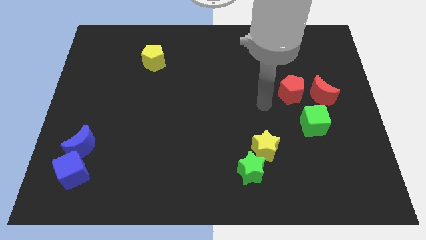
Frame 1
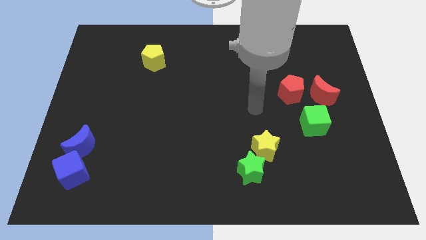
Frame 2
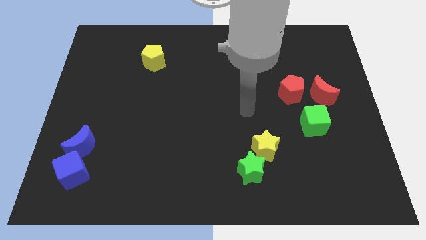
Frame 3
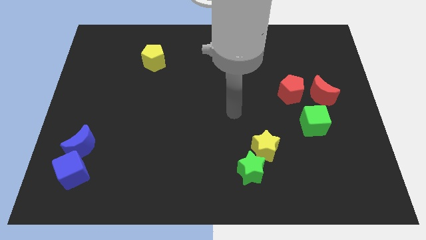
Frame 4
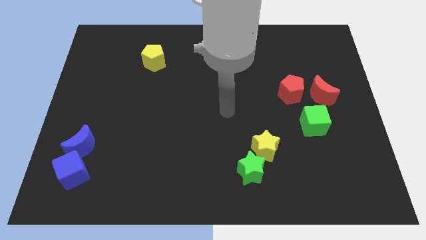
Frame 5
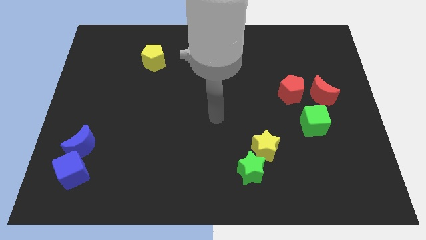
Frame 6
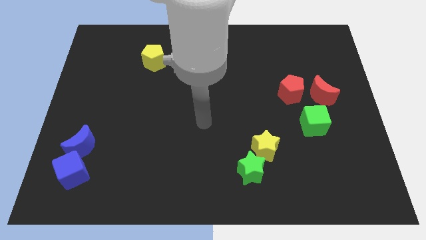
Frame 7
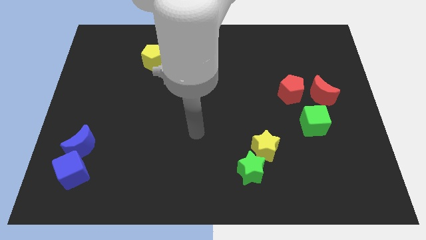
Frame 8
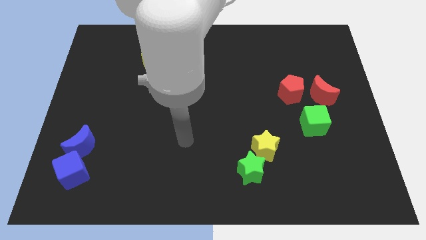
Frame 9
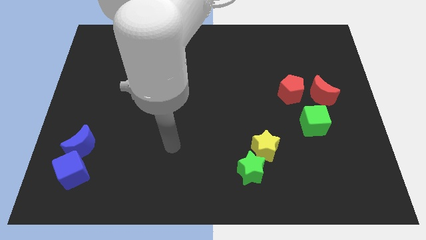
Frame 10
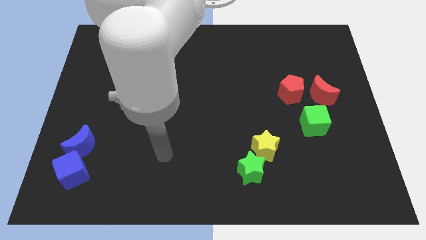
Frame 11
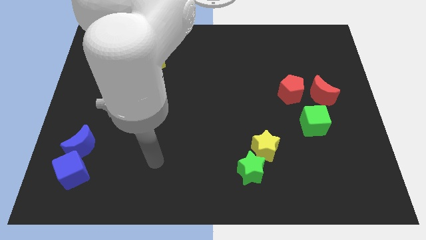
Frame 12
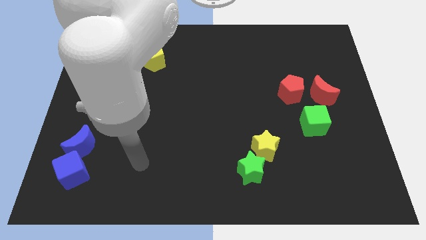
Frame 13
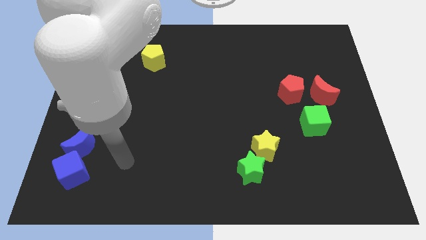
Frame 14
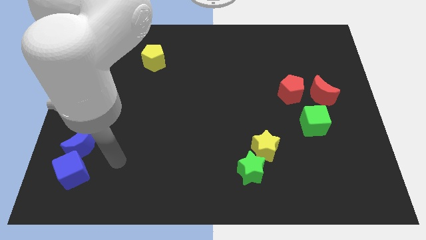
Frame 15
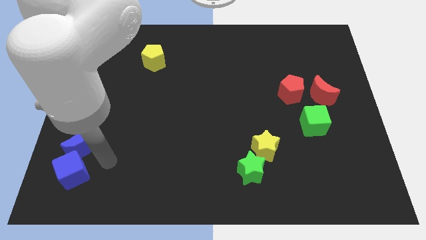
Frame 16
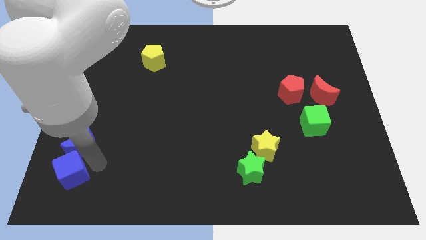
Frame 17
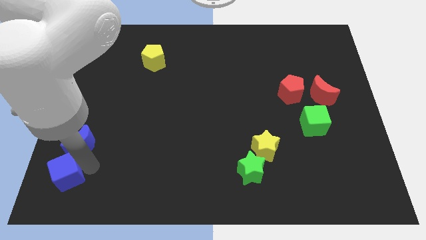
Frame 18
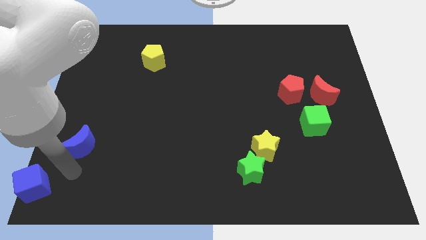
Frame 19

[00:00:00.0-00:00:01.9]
pull the blue moon apart from the blue cube

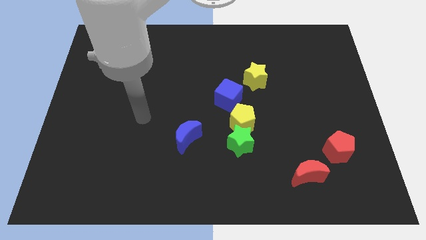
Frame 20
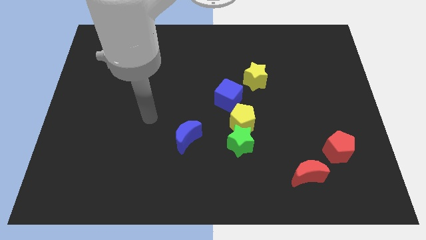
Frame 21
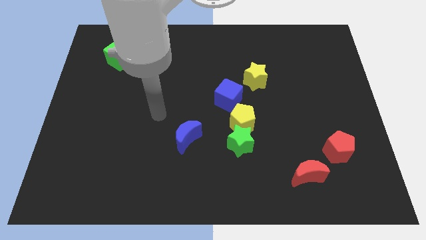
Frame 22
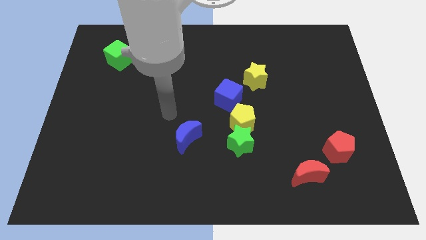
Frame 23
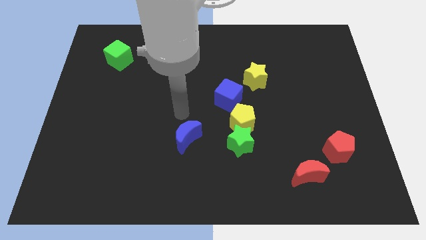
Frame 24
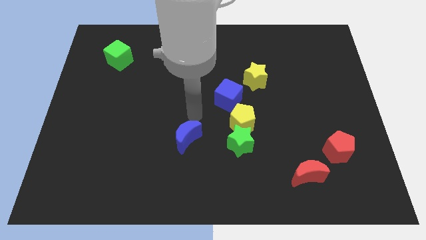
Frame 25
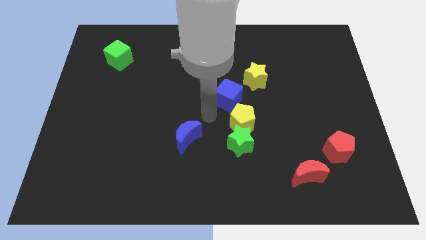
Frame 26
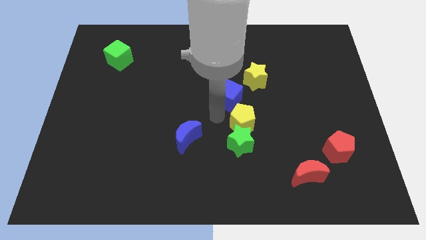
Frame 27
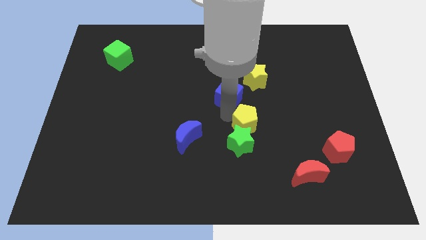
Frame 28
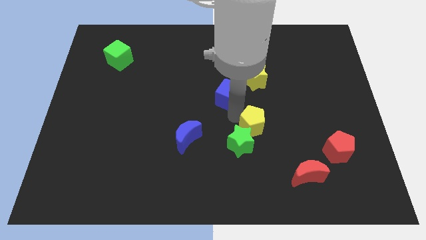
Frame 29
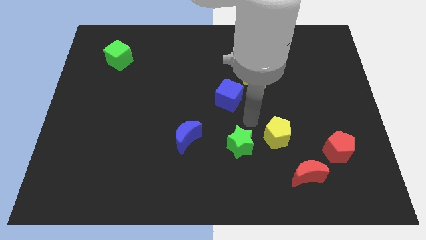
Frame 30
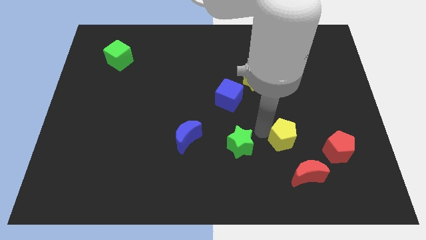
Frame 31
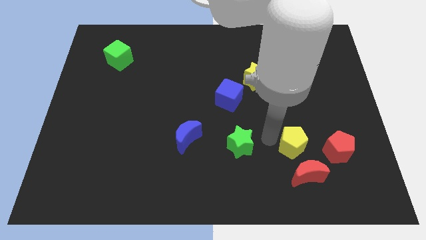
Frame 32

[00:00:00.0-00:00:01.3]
pull the green star apart from the yellow pentagon

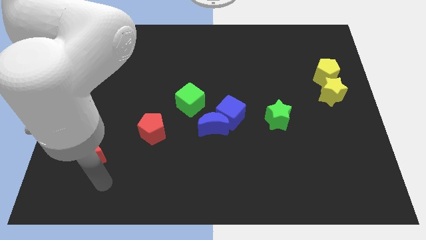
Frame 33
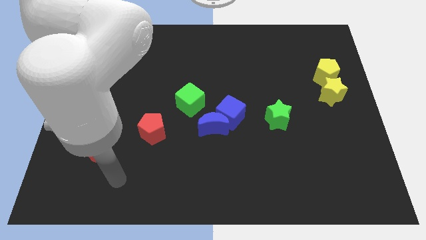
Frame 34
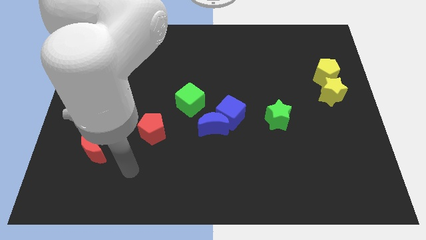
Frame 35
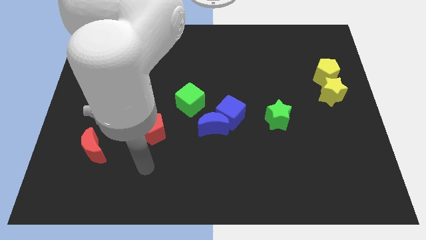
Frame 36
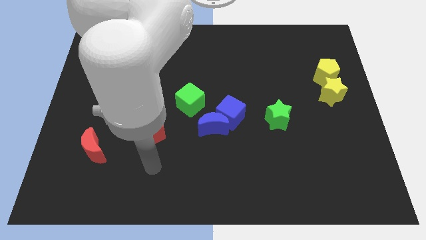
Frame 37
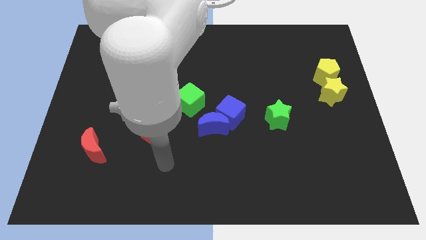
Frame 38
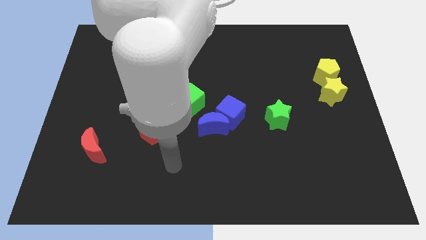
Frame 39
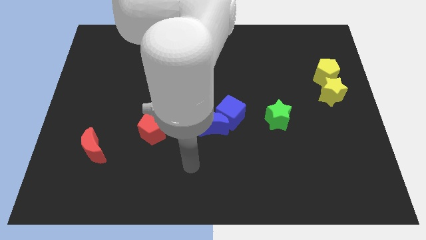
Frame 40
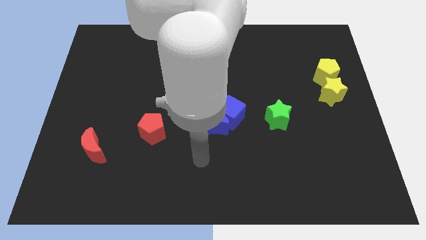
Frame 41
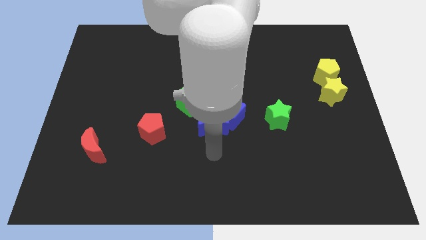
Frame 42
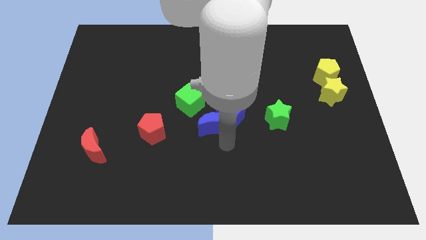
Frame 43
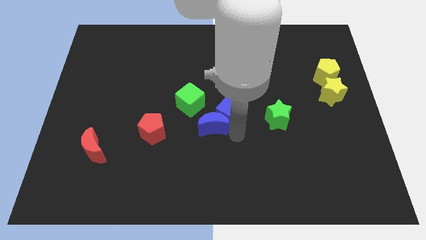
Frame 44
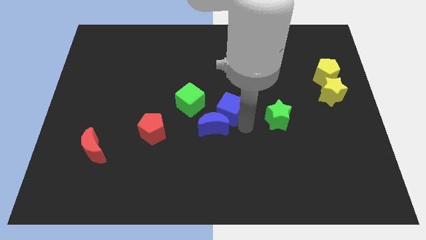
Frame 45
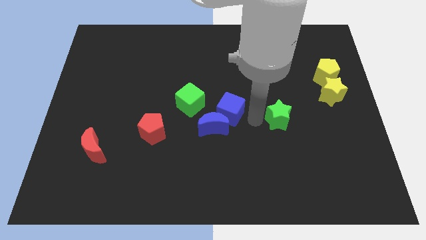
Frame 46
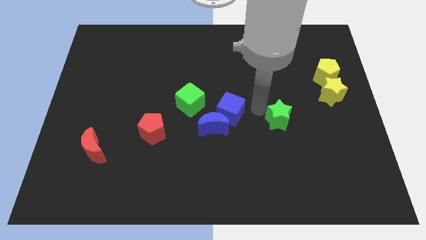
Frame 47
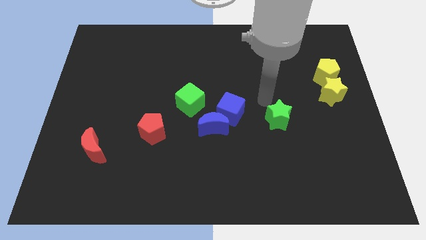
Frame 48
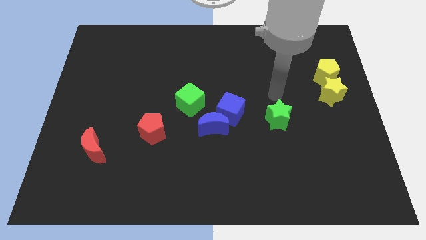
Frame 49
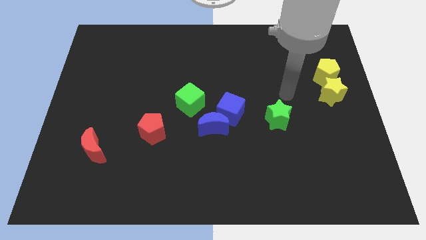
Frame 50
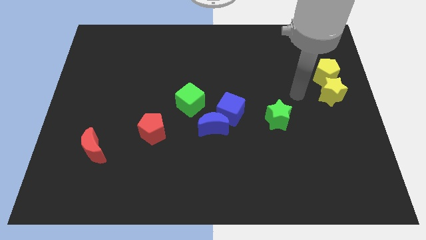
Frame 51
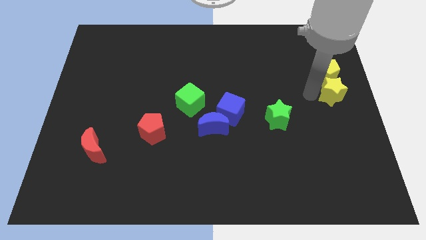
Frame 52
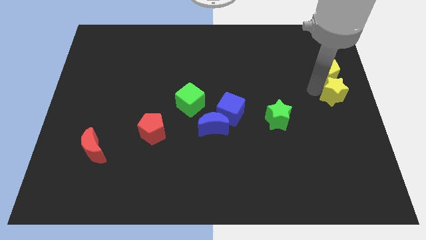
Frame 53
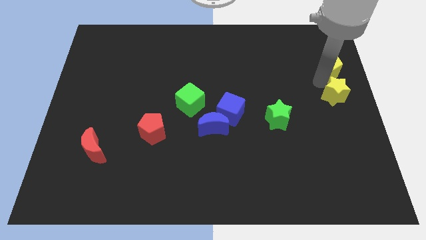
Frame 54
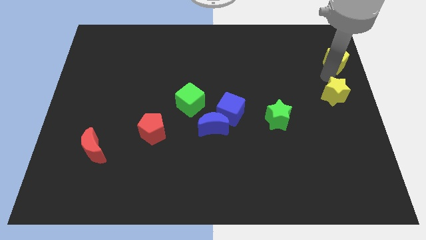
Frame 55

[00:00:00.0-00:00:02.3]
separate the yellow star from the yellow pentagon

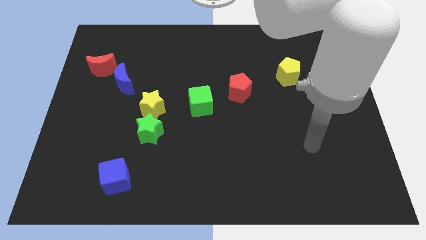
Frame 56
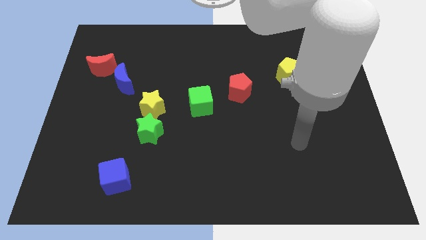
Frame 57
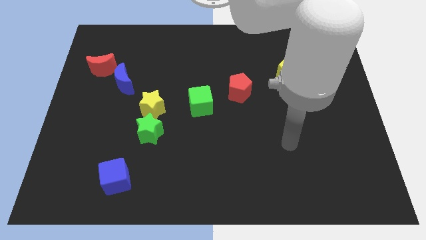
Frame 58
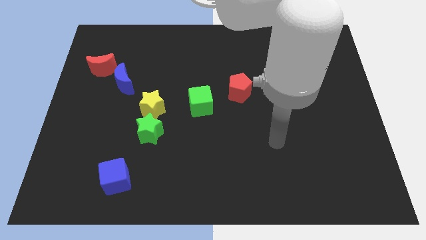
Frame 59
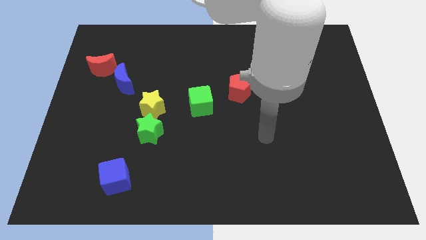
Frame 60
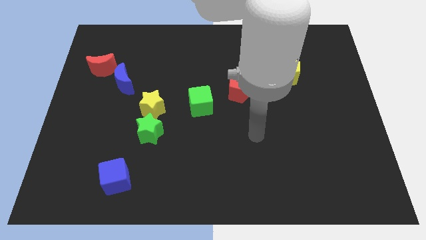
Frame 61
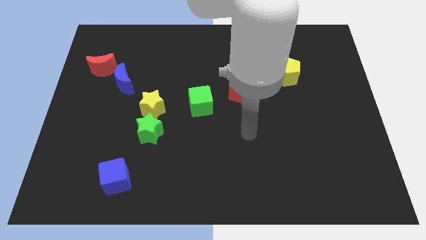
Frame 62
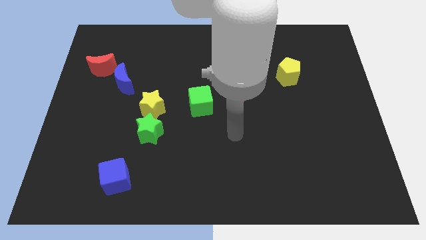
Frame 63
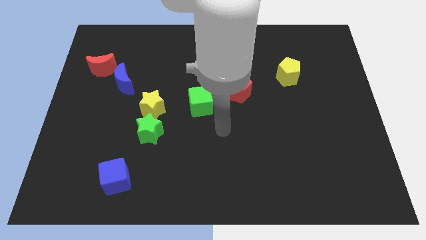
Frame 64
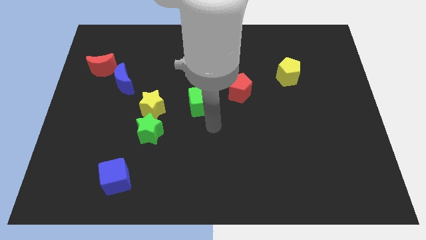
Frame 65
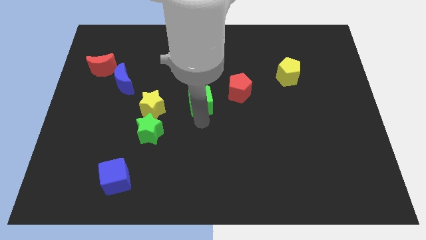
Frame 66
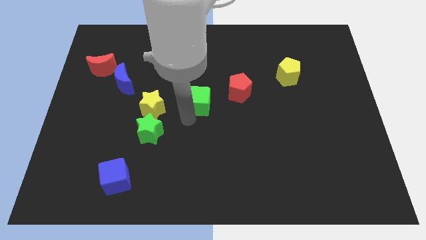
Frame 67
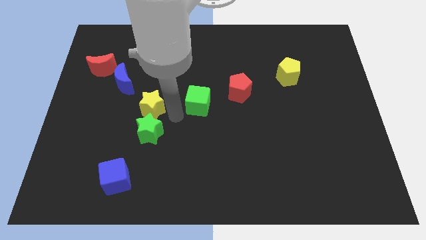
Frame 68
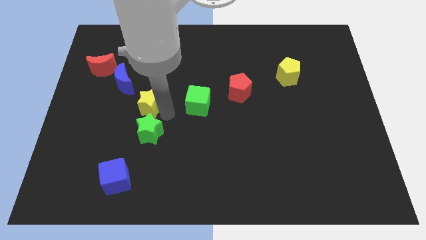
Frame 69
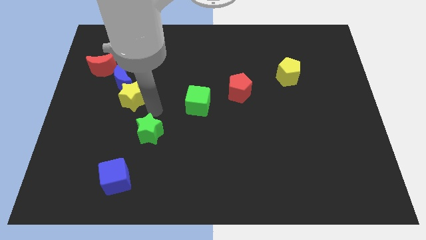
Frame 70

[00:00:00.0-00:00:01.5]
pull the green star apart from the yellow star

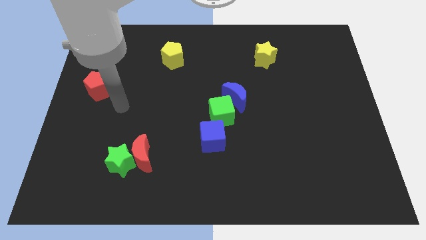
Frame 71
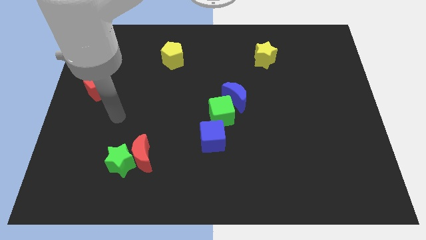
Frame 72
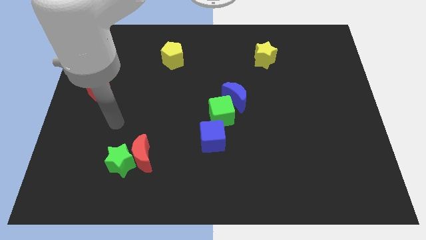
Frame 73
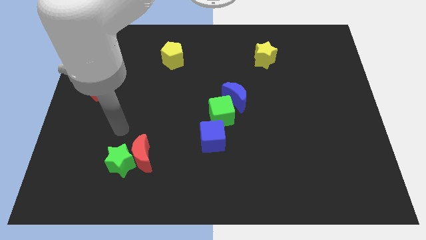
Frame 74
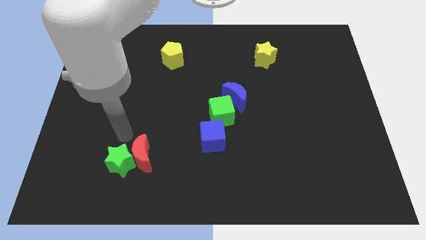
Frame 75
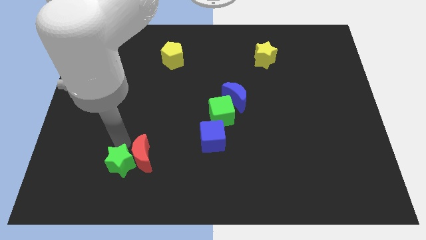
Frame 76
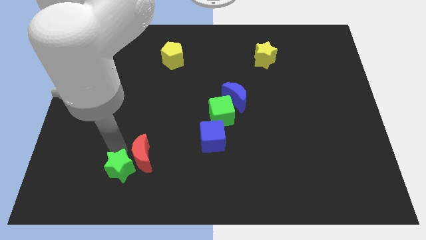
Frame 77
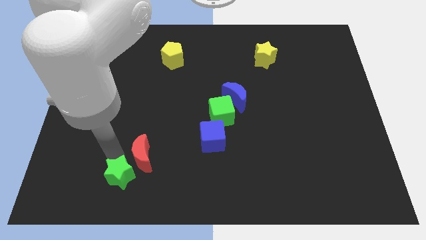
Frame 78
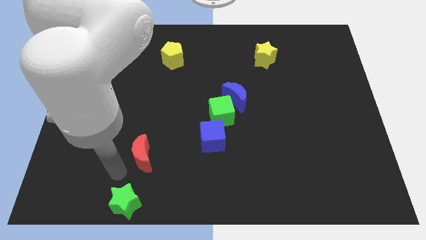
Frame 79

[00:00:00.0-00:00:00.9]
separate the red moon from the green star

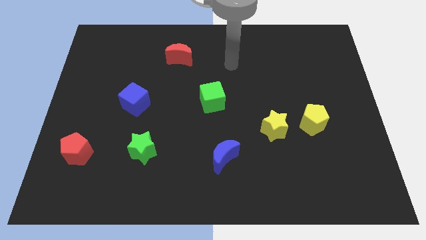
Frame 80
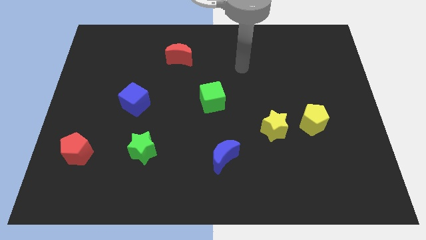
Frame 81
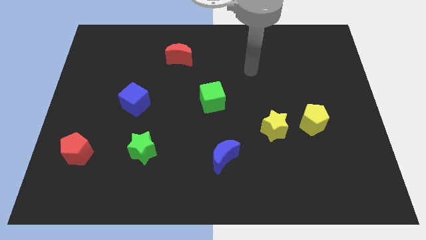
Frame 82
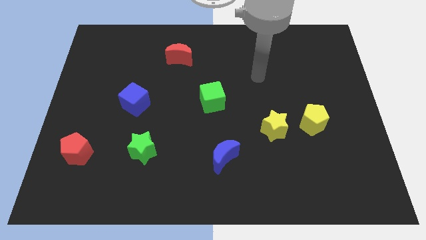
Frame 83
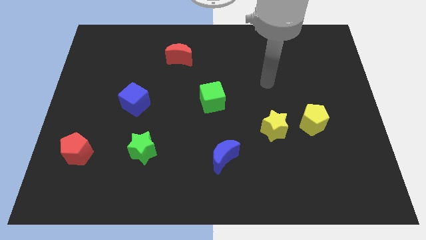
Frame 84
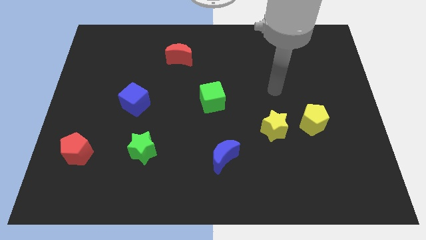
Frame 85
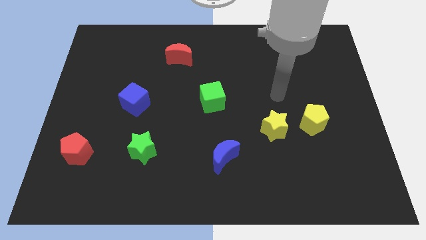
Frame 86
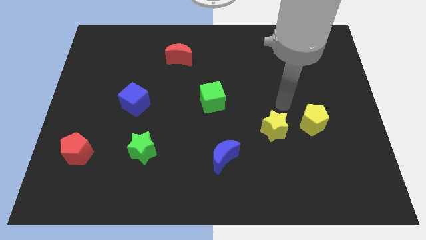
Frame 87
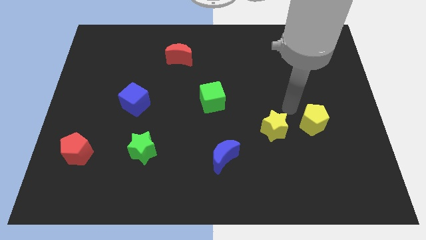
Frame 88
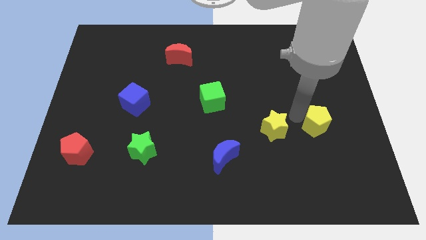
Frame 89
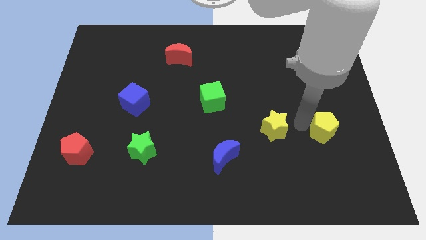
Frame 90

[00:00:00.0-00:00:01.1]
move the yellow star away from the yellow pentagon

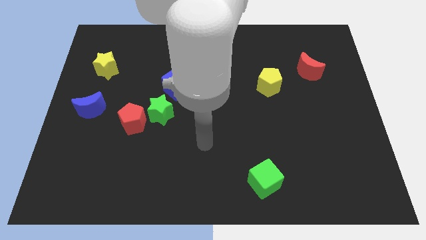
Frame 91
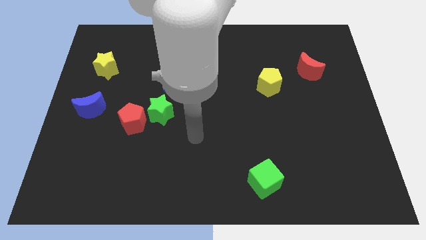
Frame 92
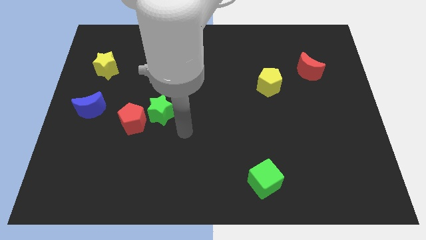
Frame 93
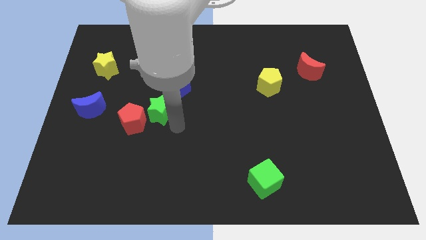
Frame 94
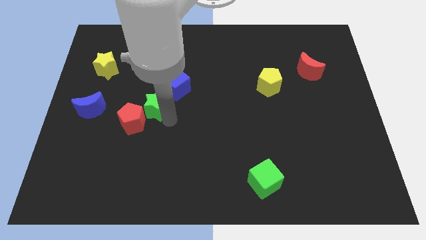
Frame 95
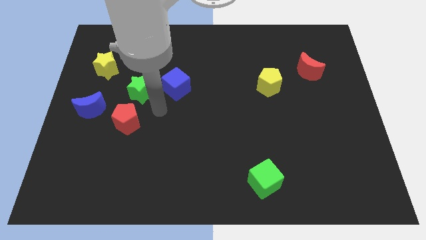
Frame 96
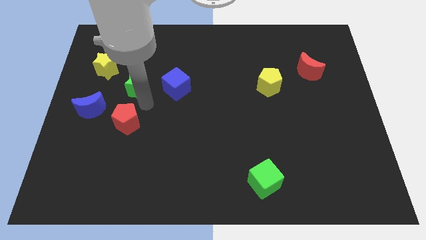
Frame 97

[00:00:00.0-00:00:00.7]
separate the red pentagon from the green star
